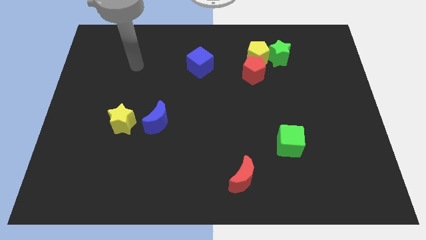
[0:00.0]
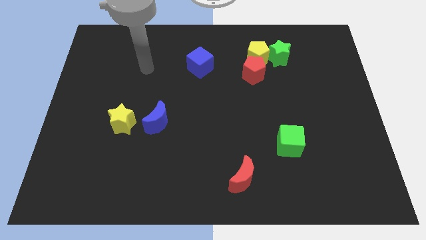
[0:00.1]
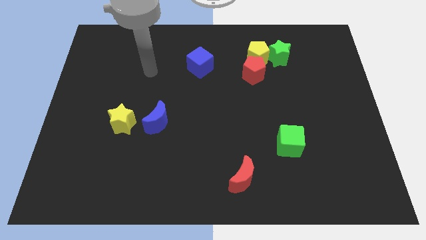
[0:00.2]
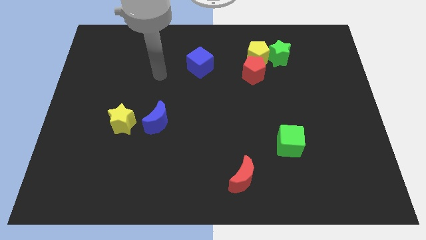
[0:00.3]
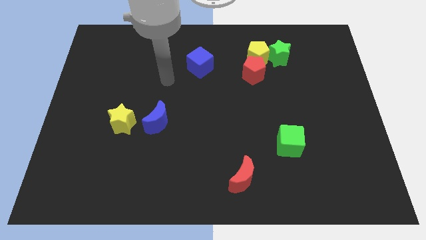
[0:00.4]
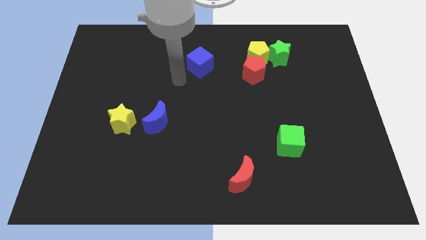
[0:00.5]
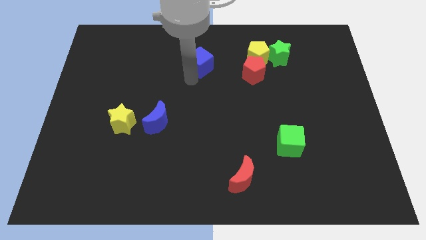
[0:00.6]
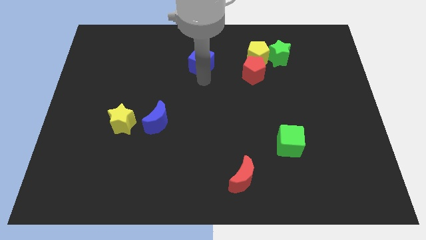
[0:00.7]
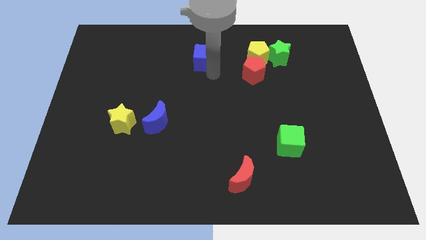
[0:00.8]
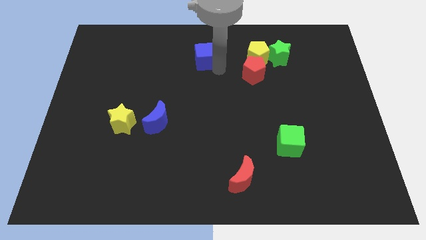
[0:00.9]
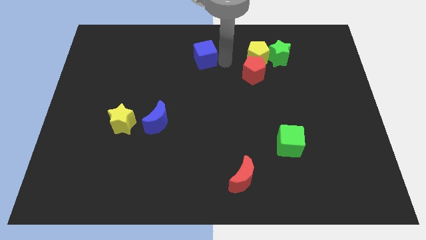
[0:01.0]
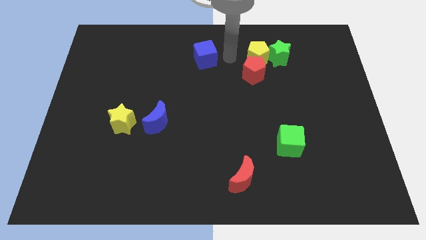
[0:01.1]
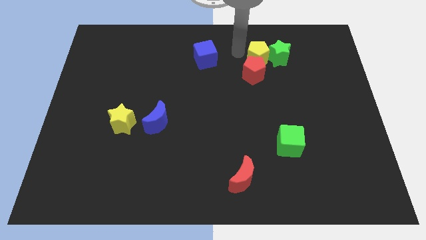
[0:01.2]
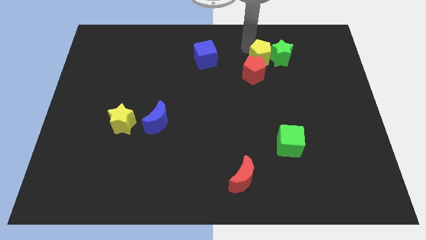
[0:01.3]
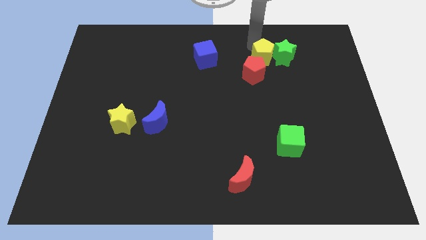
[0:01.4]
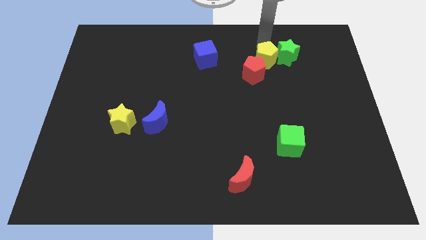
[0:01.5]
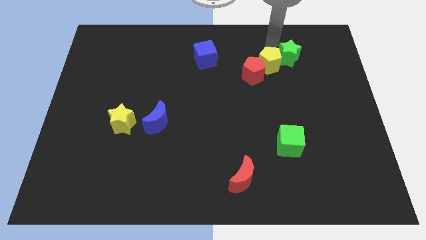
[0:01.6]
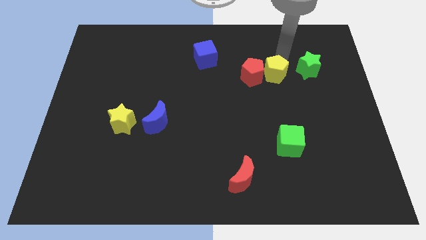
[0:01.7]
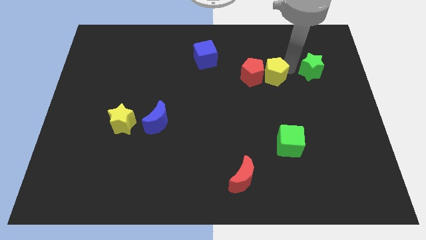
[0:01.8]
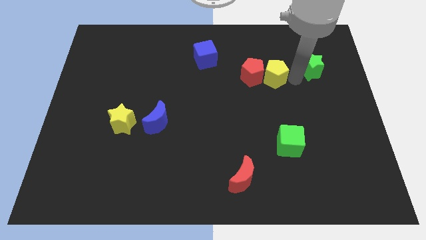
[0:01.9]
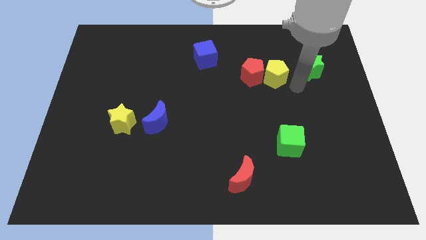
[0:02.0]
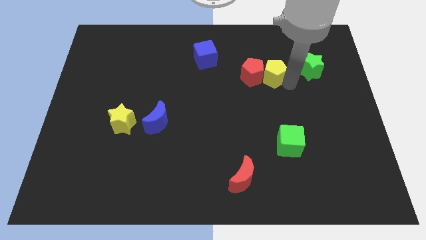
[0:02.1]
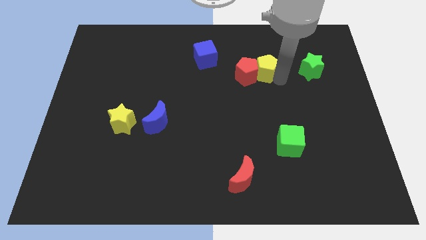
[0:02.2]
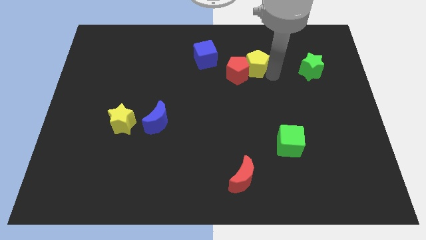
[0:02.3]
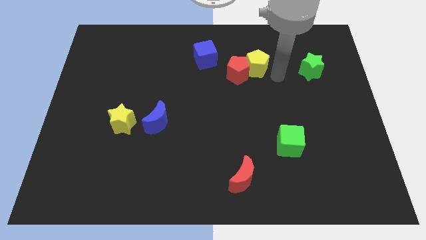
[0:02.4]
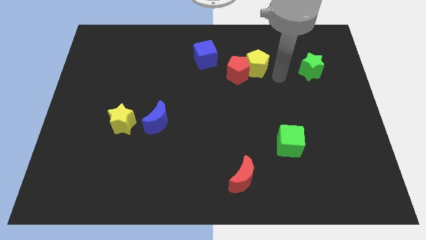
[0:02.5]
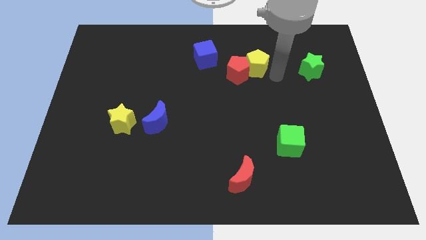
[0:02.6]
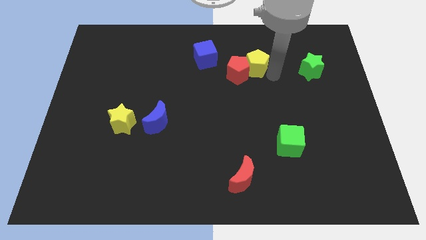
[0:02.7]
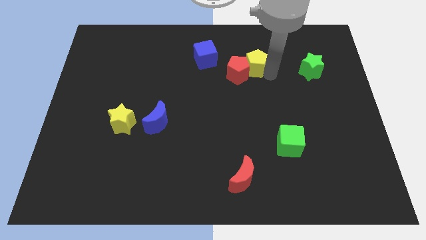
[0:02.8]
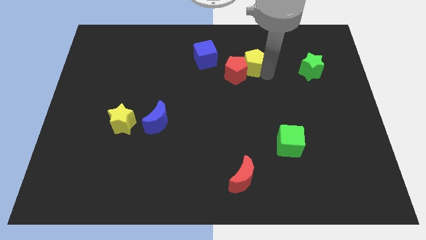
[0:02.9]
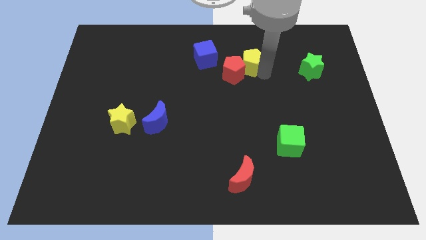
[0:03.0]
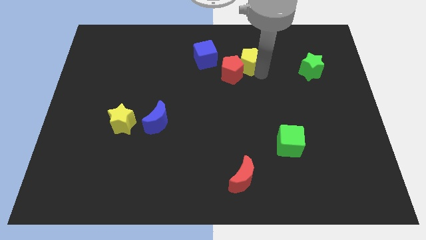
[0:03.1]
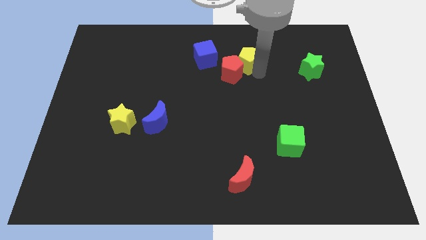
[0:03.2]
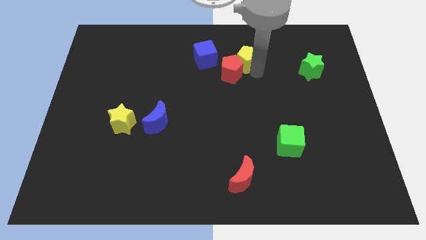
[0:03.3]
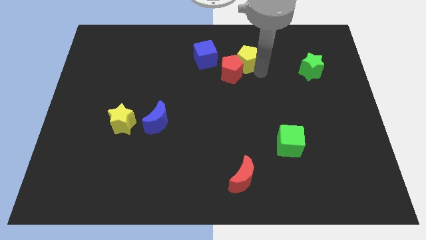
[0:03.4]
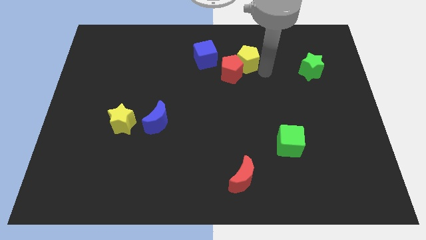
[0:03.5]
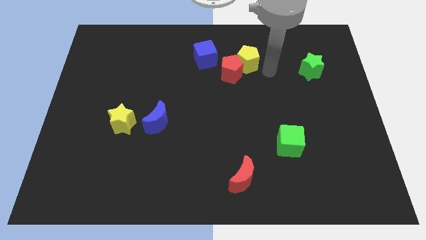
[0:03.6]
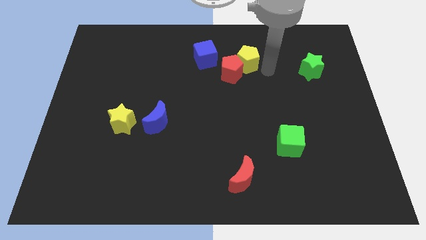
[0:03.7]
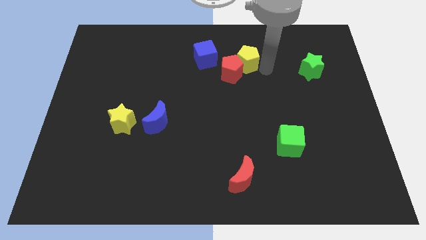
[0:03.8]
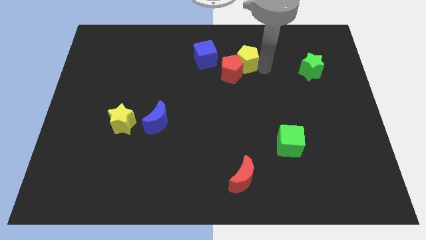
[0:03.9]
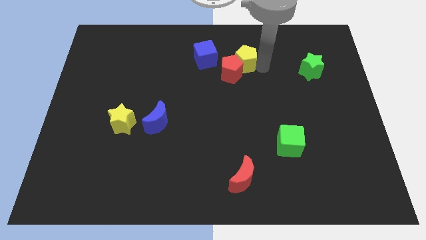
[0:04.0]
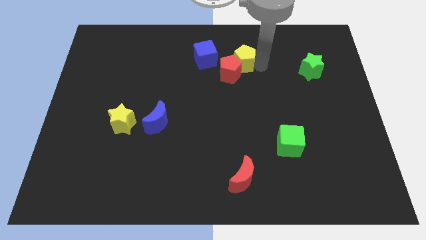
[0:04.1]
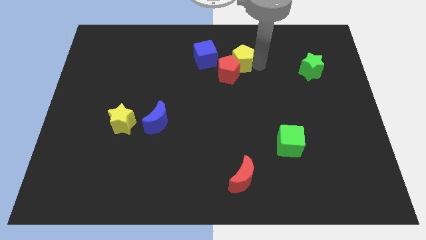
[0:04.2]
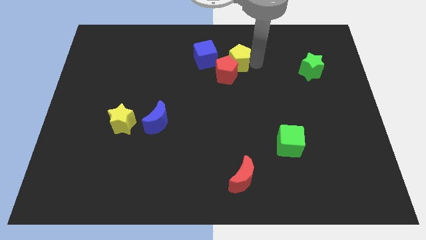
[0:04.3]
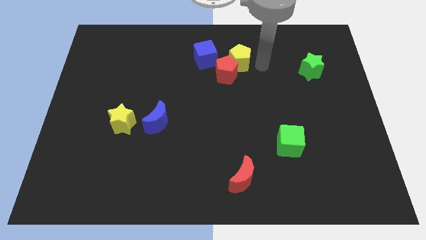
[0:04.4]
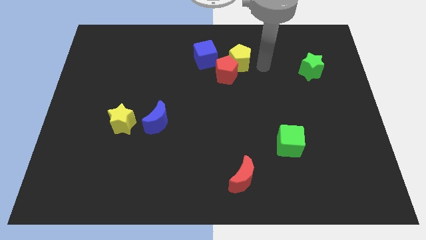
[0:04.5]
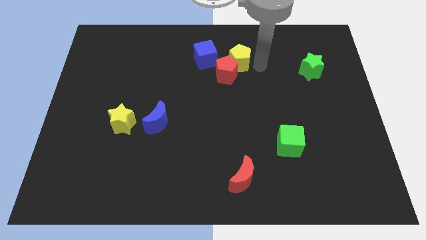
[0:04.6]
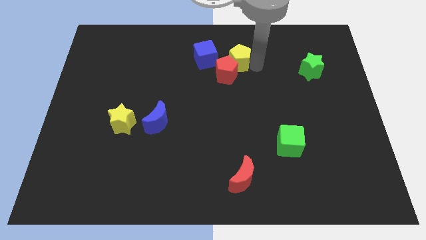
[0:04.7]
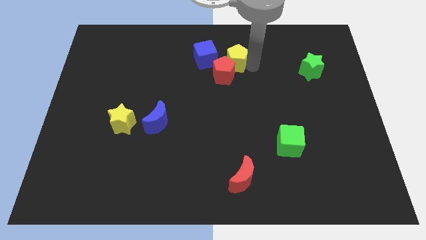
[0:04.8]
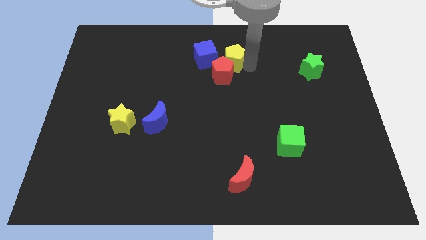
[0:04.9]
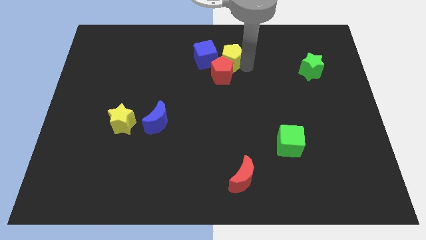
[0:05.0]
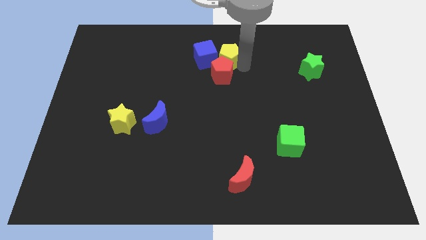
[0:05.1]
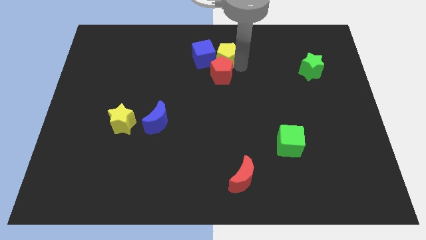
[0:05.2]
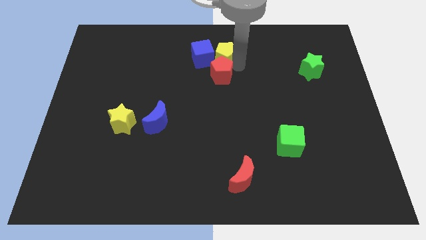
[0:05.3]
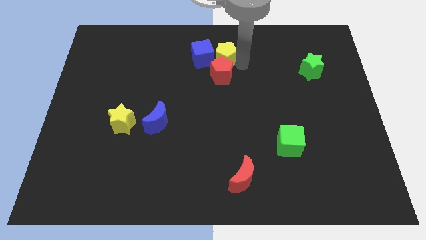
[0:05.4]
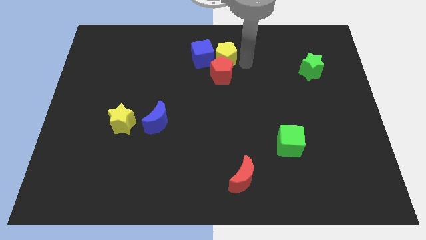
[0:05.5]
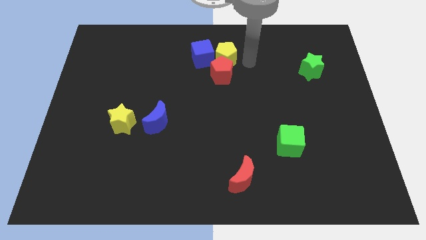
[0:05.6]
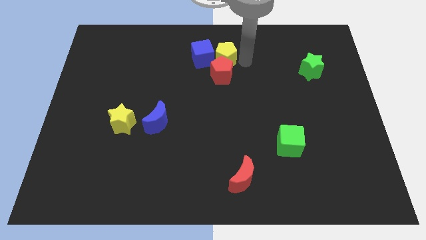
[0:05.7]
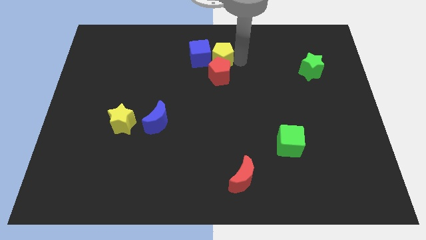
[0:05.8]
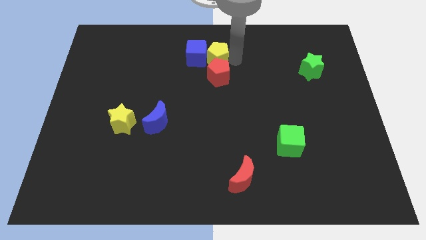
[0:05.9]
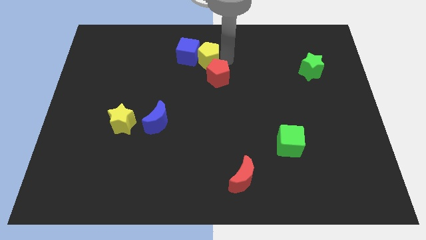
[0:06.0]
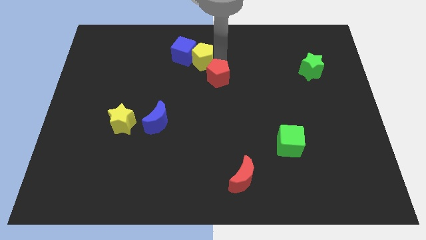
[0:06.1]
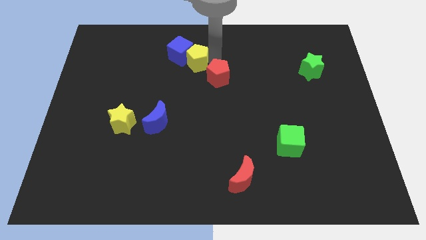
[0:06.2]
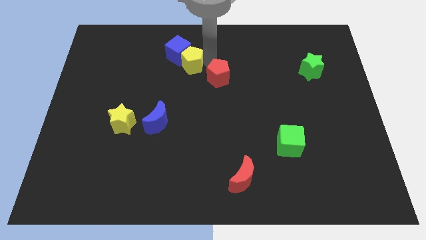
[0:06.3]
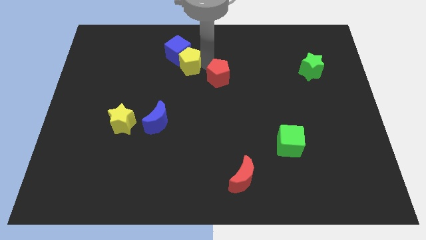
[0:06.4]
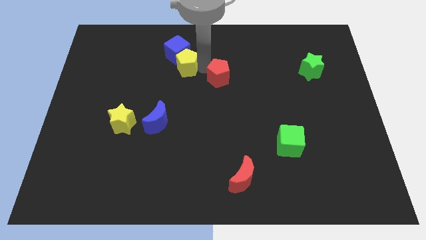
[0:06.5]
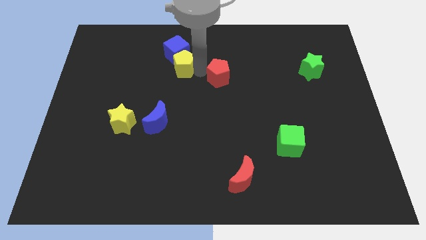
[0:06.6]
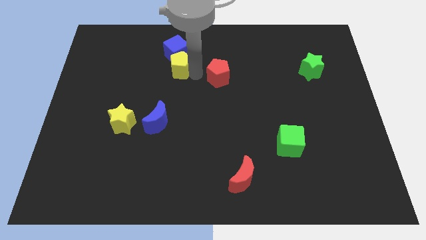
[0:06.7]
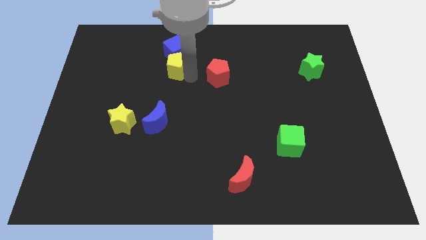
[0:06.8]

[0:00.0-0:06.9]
move the yellow pentagon to the left

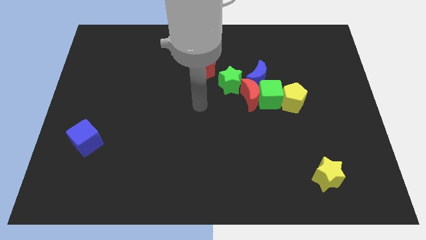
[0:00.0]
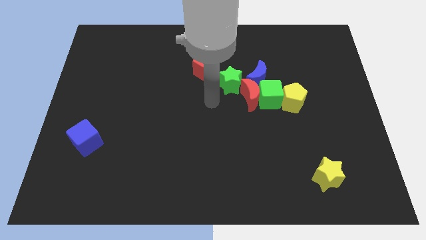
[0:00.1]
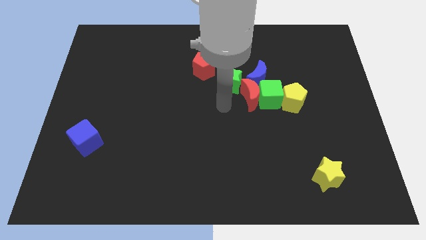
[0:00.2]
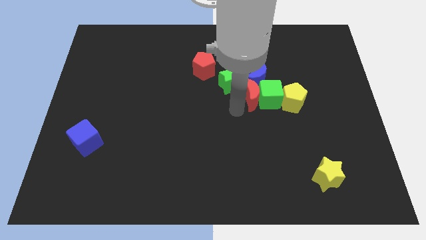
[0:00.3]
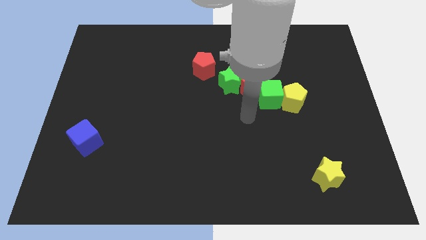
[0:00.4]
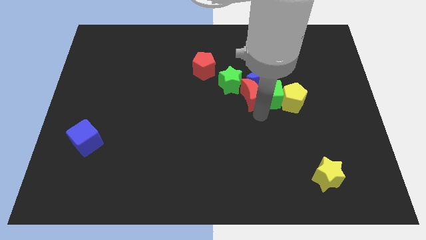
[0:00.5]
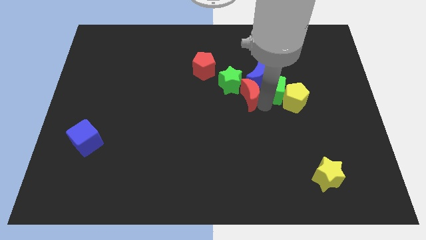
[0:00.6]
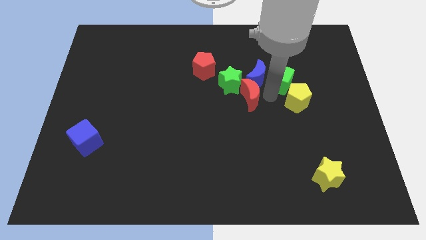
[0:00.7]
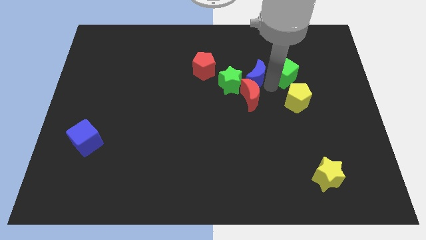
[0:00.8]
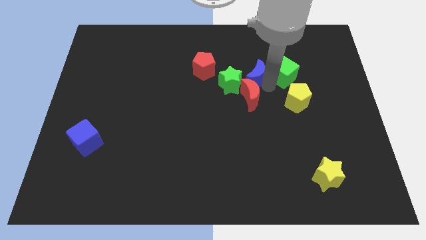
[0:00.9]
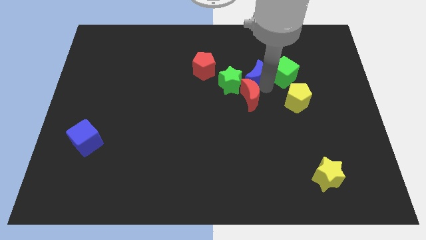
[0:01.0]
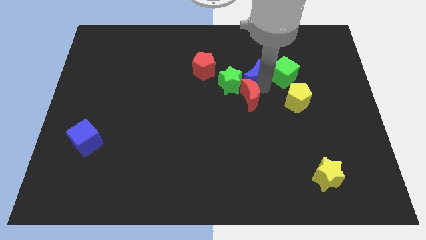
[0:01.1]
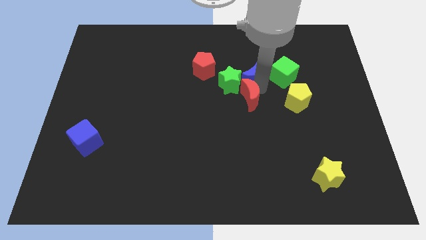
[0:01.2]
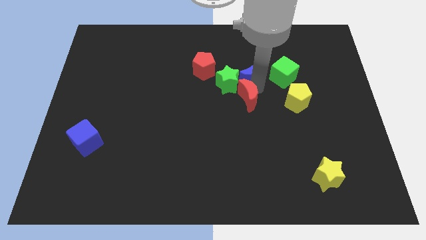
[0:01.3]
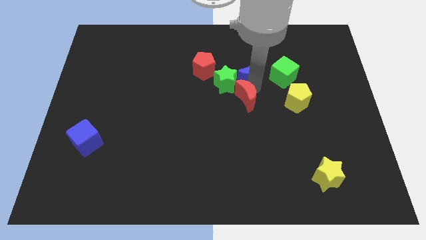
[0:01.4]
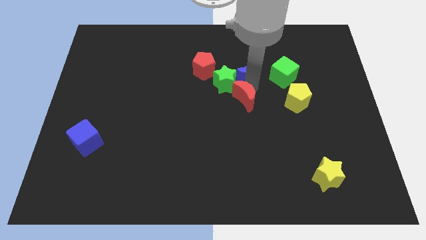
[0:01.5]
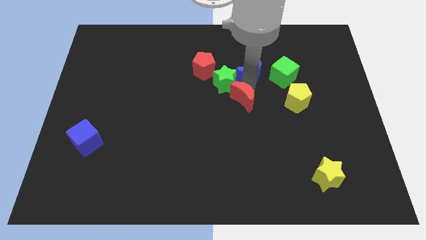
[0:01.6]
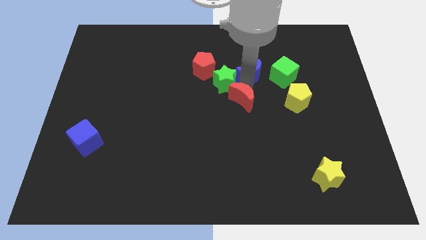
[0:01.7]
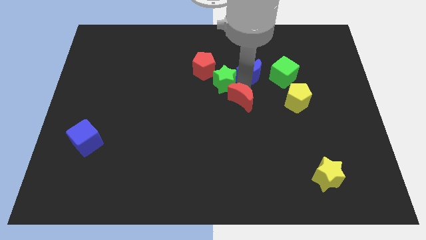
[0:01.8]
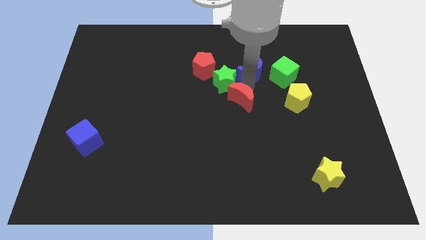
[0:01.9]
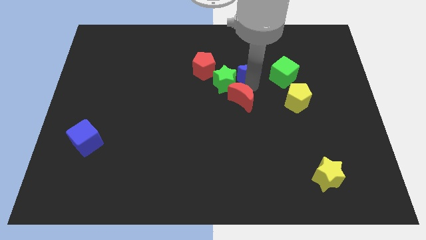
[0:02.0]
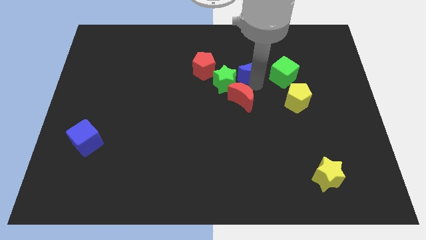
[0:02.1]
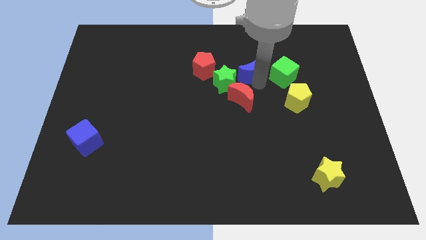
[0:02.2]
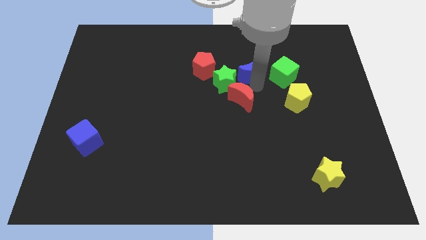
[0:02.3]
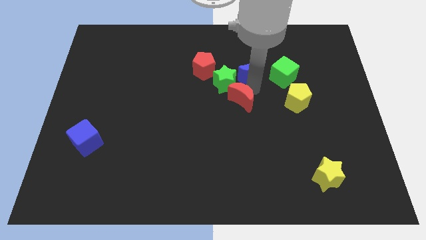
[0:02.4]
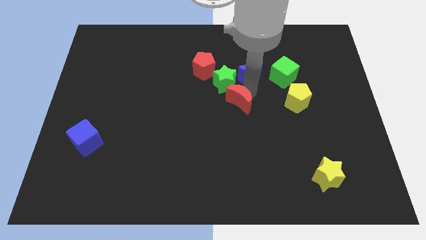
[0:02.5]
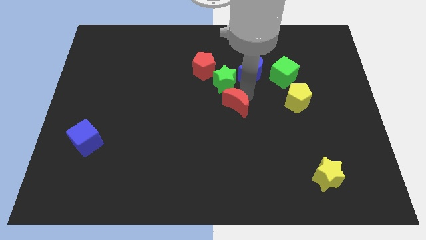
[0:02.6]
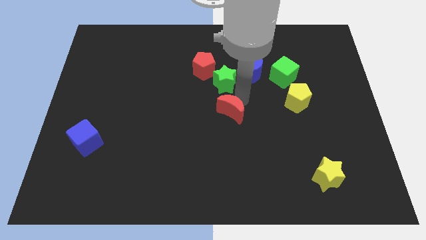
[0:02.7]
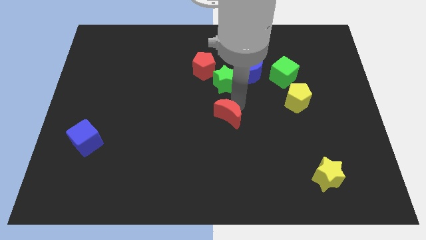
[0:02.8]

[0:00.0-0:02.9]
push the red moon slightly downwards and left diagonally
